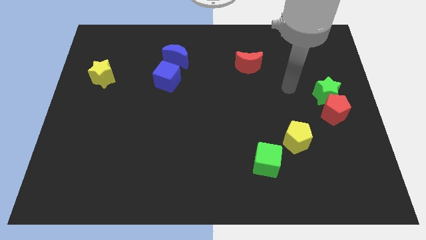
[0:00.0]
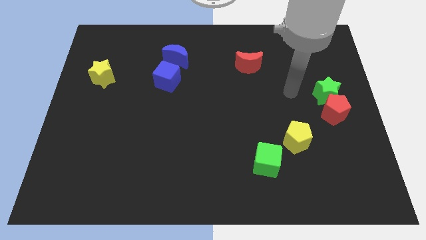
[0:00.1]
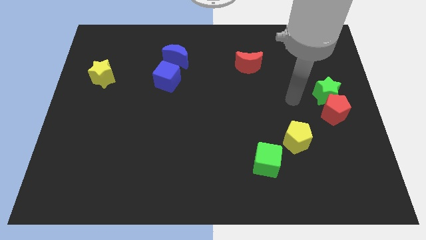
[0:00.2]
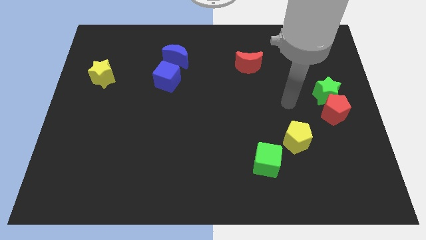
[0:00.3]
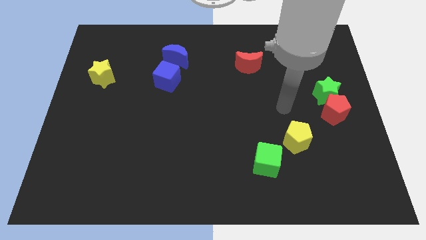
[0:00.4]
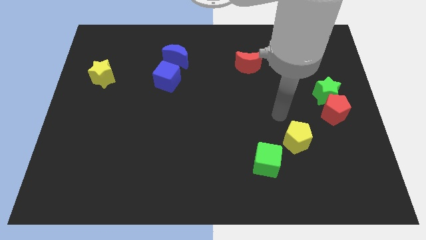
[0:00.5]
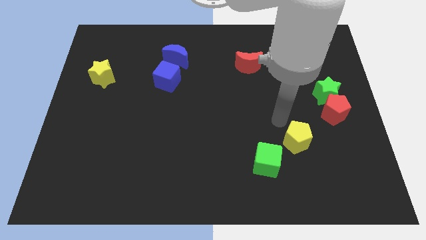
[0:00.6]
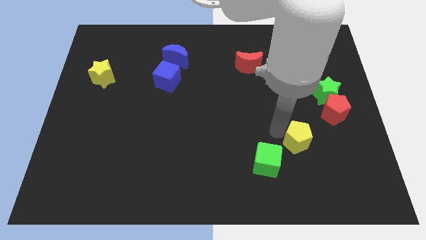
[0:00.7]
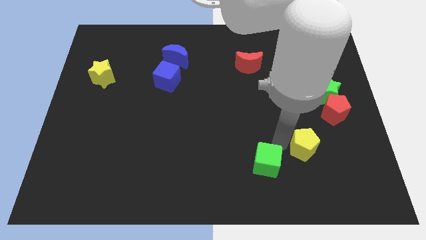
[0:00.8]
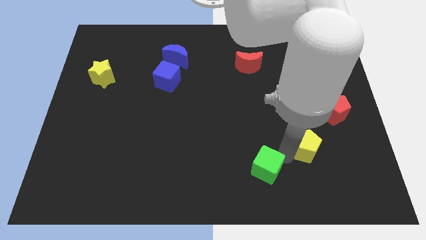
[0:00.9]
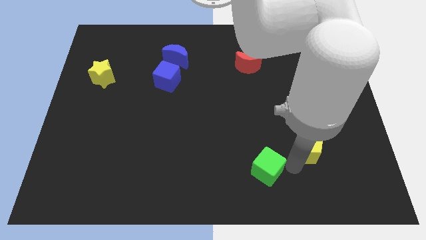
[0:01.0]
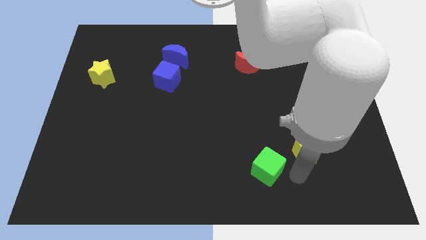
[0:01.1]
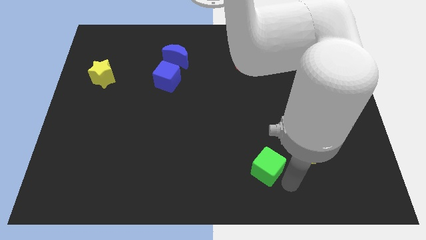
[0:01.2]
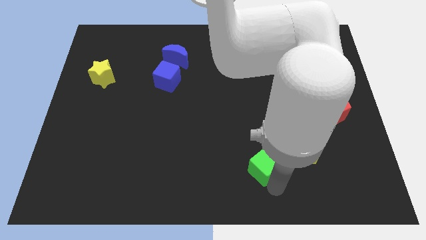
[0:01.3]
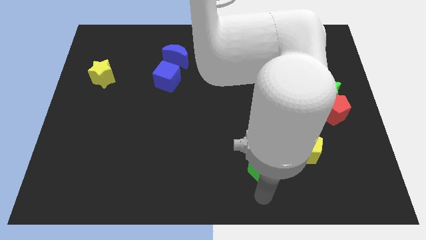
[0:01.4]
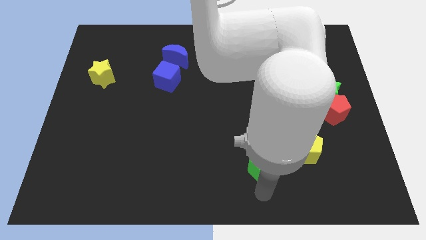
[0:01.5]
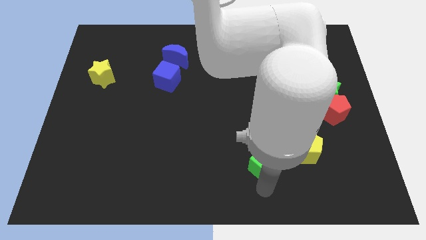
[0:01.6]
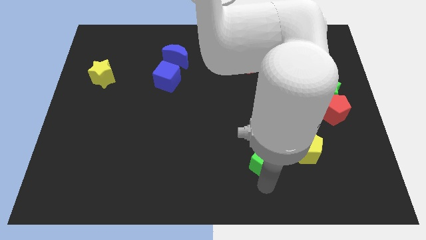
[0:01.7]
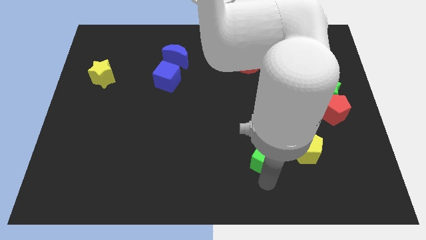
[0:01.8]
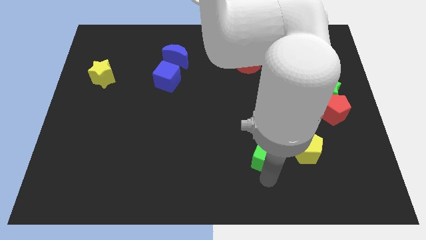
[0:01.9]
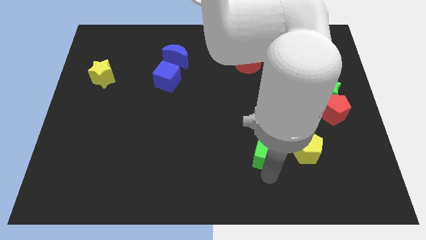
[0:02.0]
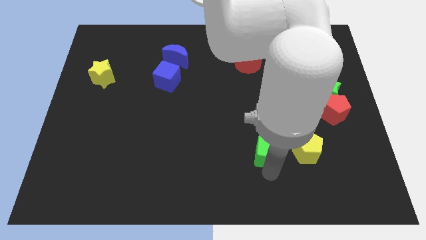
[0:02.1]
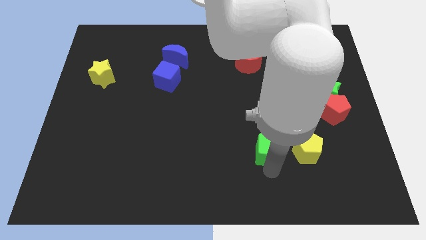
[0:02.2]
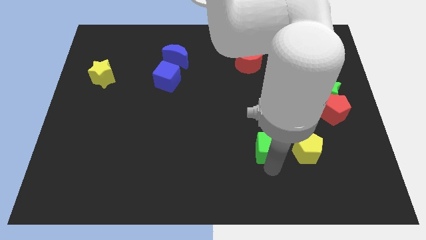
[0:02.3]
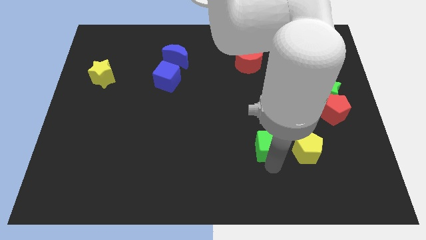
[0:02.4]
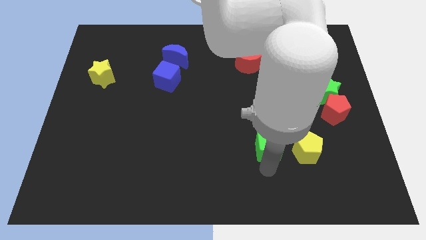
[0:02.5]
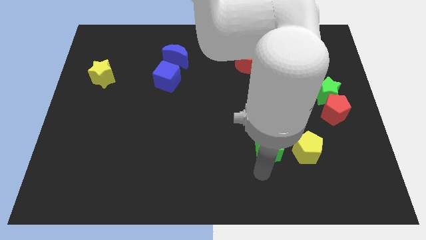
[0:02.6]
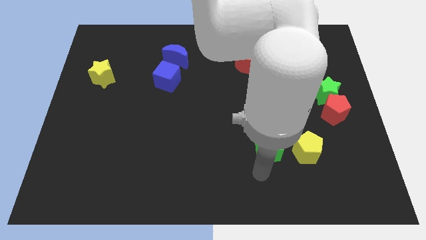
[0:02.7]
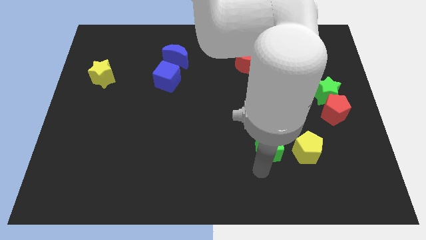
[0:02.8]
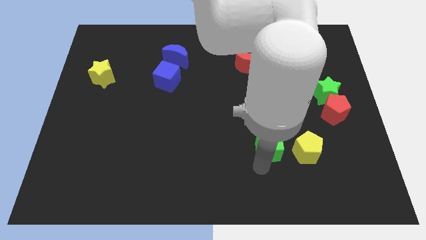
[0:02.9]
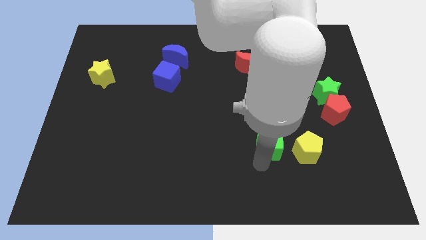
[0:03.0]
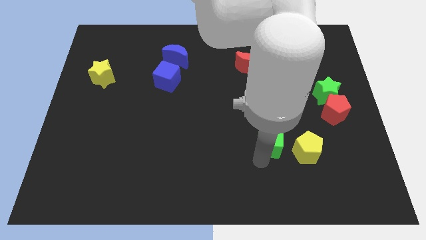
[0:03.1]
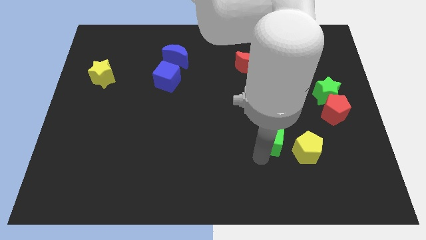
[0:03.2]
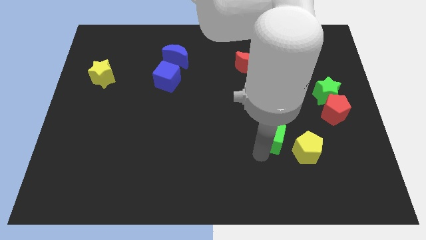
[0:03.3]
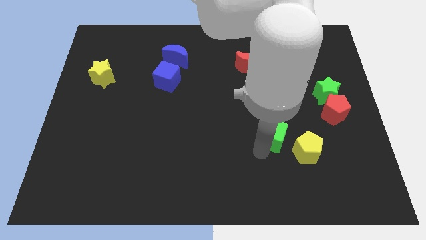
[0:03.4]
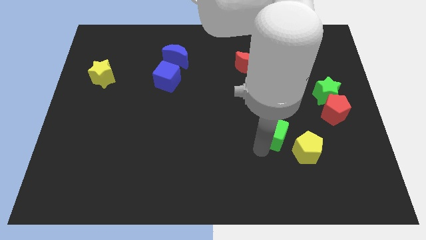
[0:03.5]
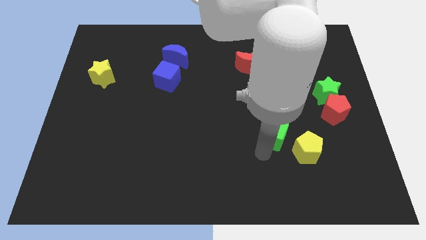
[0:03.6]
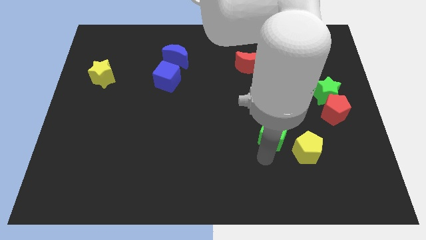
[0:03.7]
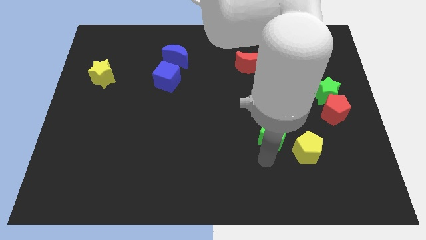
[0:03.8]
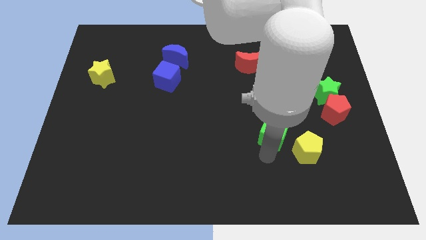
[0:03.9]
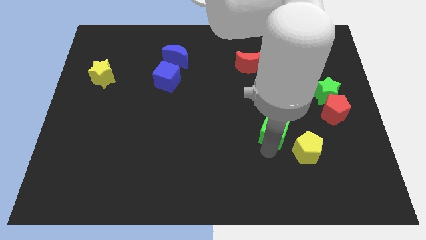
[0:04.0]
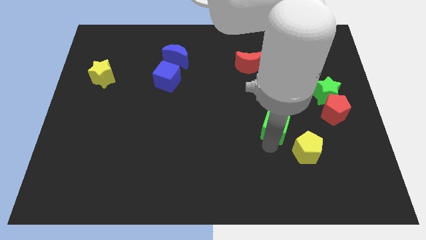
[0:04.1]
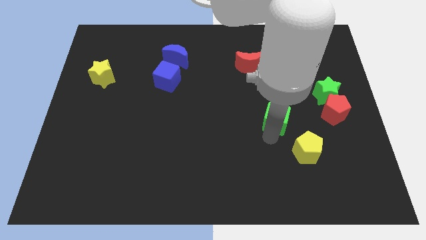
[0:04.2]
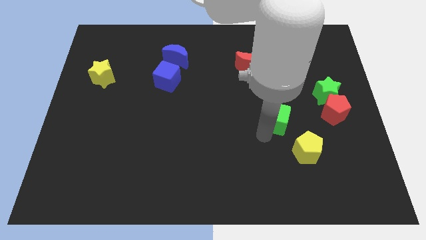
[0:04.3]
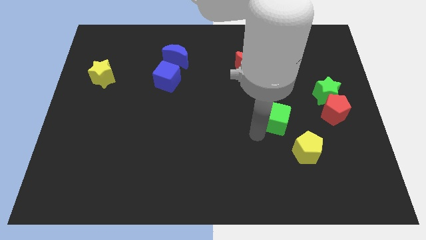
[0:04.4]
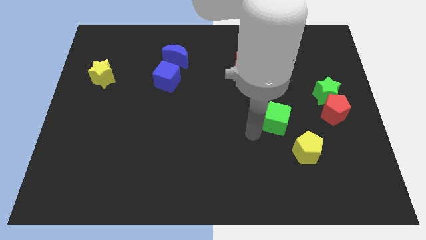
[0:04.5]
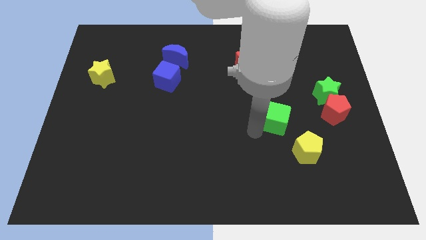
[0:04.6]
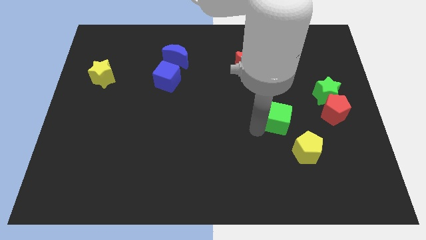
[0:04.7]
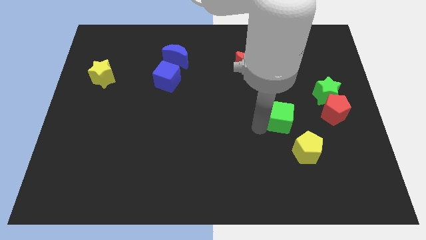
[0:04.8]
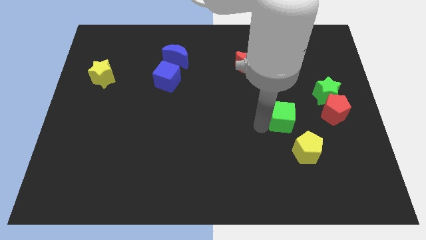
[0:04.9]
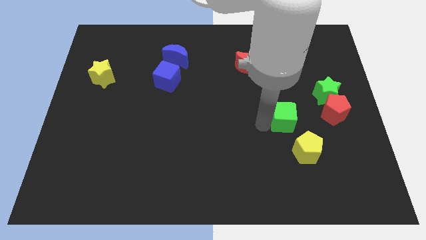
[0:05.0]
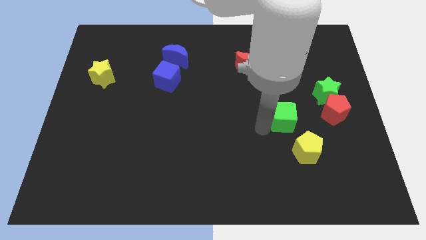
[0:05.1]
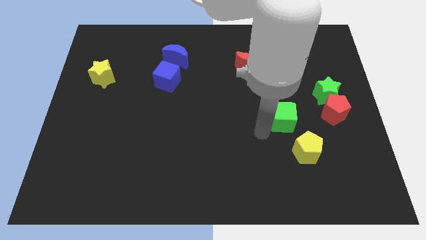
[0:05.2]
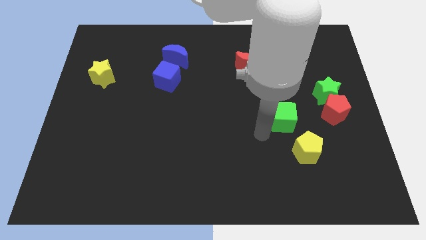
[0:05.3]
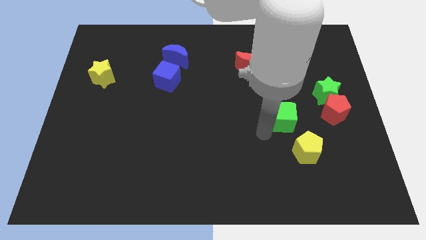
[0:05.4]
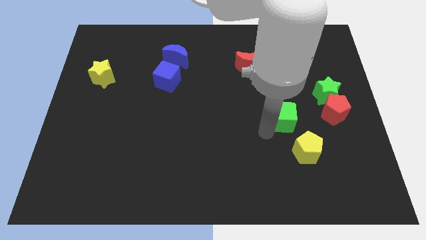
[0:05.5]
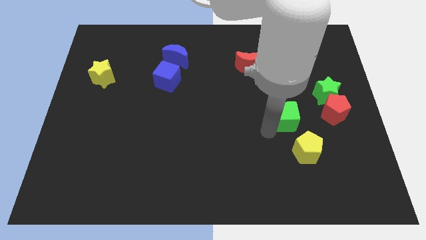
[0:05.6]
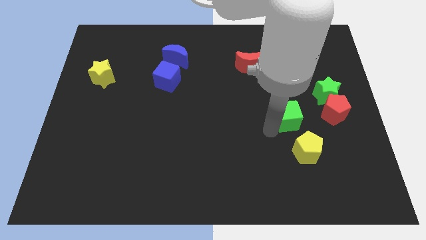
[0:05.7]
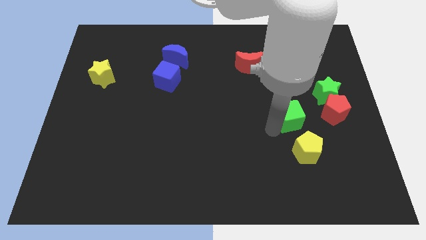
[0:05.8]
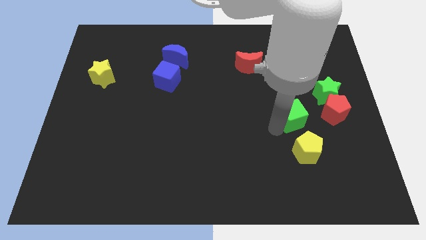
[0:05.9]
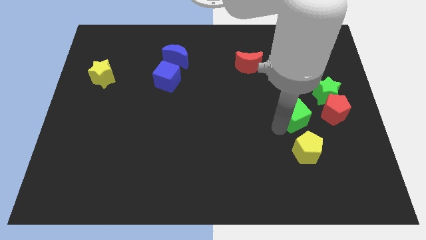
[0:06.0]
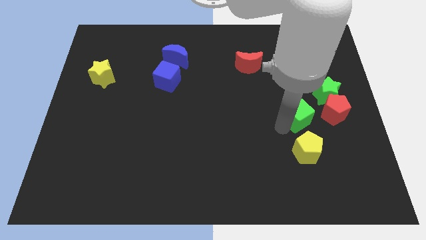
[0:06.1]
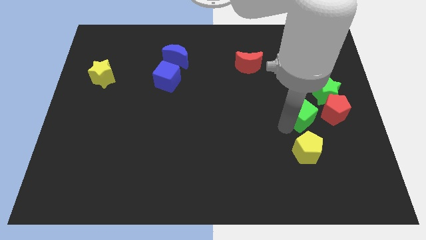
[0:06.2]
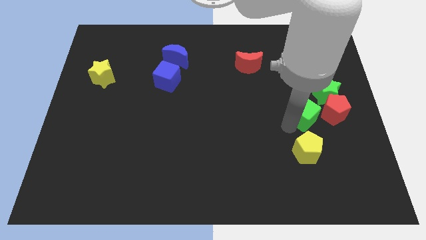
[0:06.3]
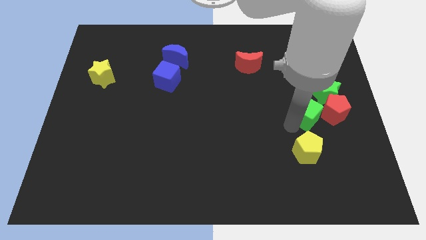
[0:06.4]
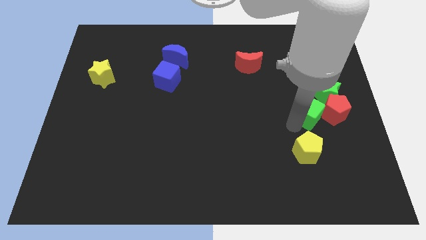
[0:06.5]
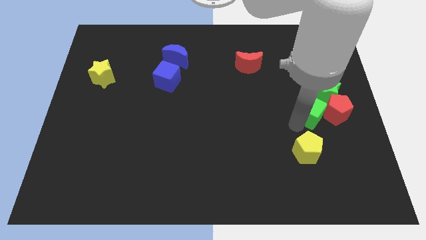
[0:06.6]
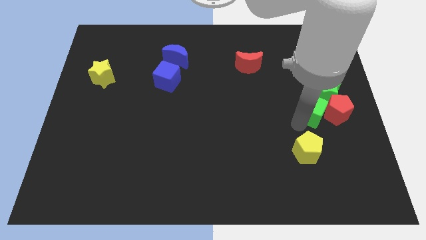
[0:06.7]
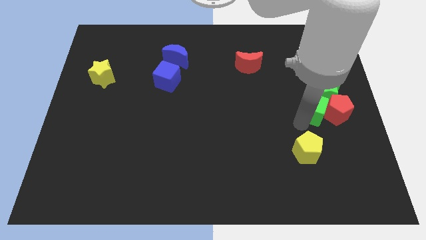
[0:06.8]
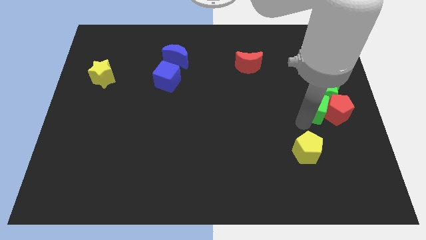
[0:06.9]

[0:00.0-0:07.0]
put the green cube close to the green star
